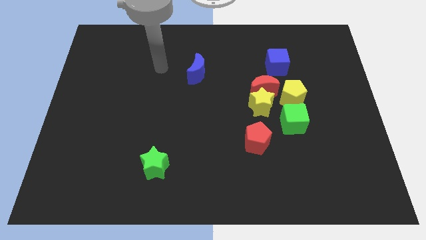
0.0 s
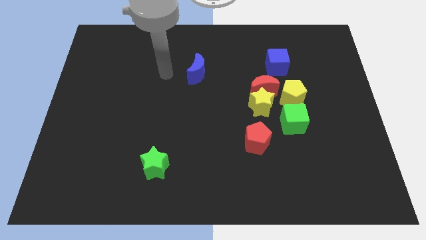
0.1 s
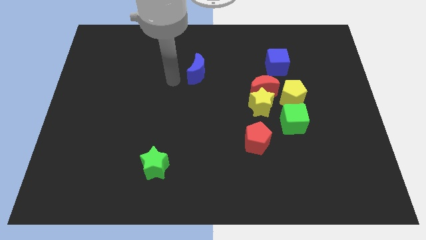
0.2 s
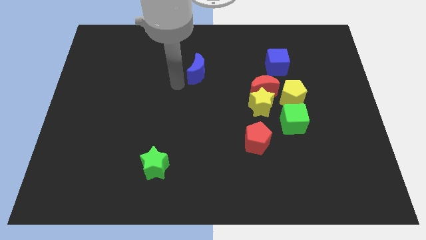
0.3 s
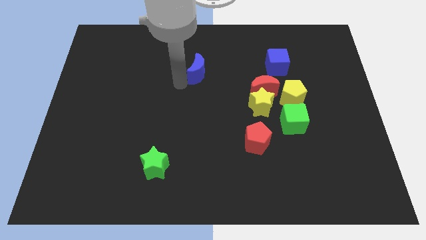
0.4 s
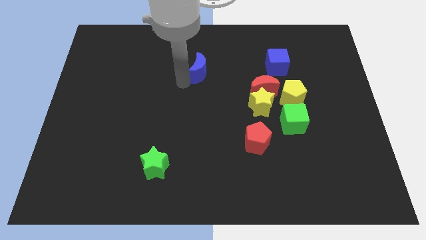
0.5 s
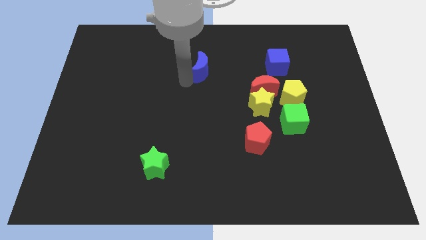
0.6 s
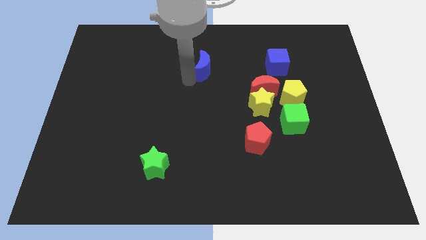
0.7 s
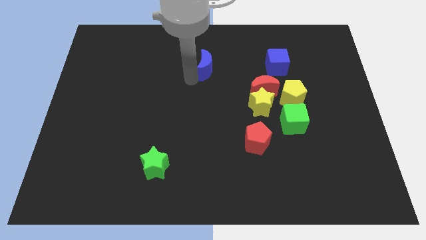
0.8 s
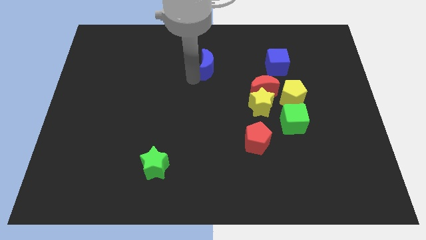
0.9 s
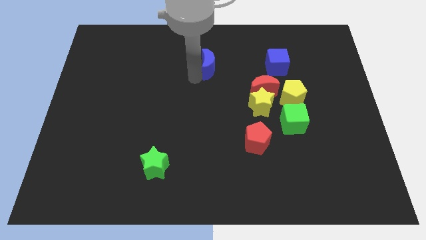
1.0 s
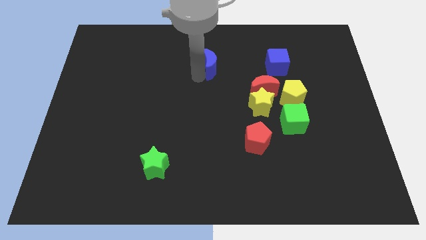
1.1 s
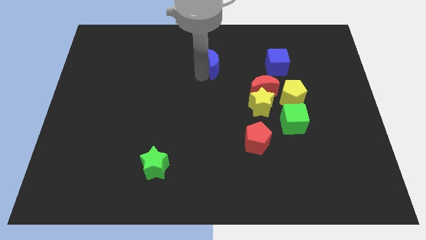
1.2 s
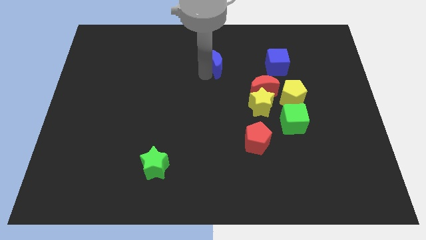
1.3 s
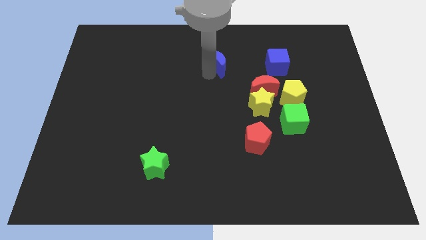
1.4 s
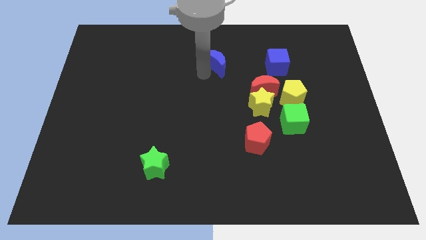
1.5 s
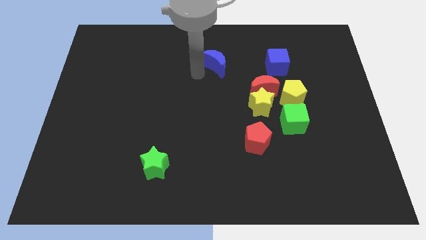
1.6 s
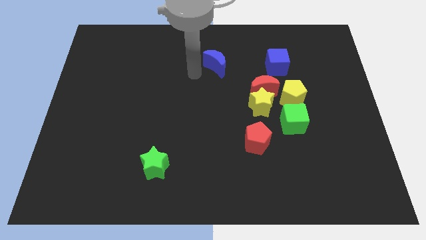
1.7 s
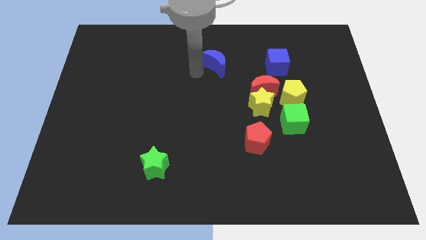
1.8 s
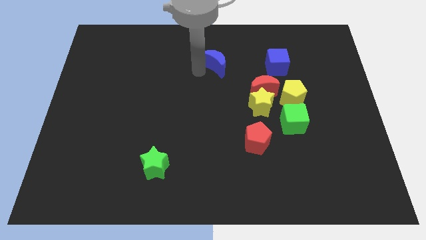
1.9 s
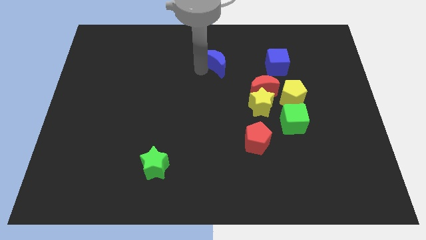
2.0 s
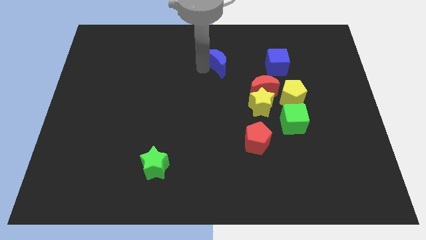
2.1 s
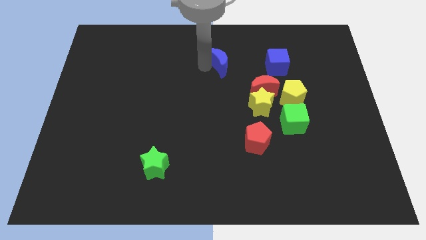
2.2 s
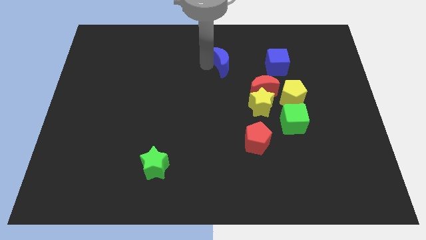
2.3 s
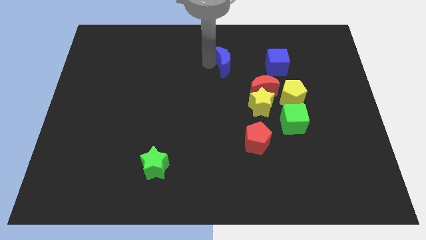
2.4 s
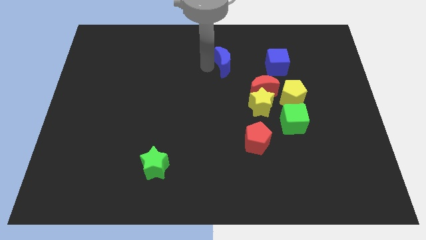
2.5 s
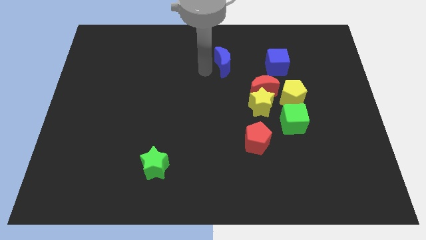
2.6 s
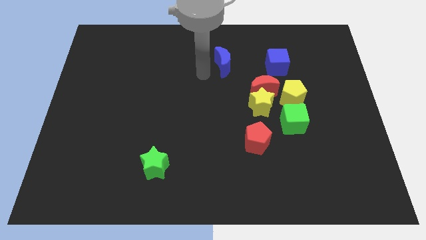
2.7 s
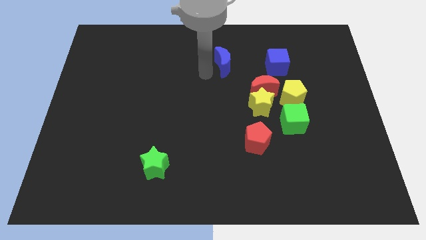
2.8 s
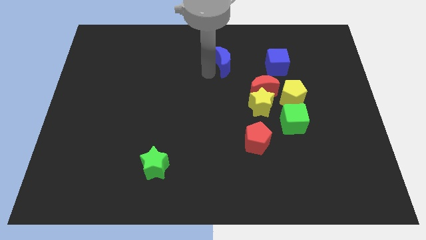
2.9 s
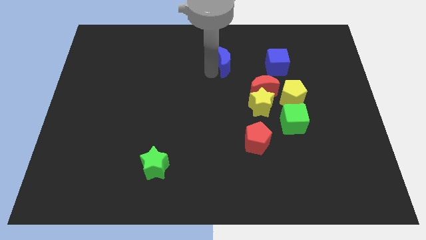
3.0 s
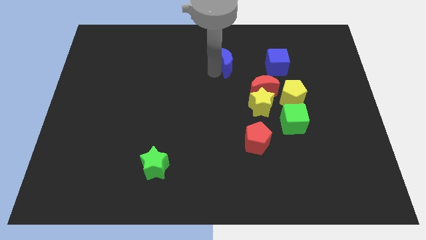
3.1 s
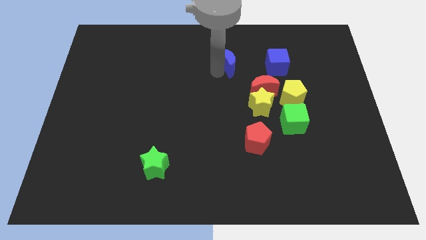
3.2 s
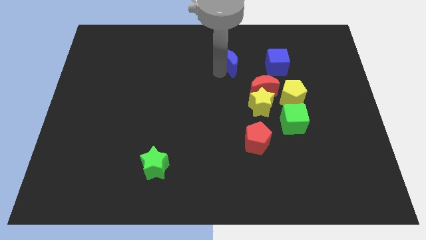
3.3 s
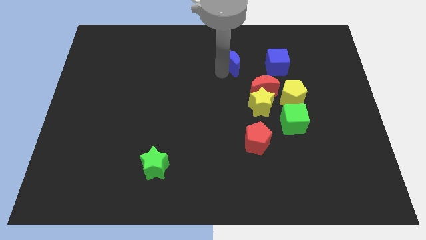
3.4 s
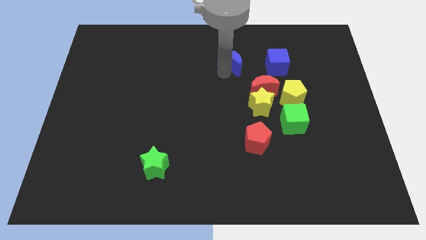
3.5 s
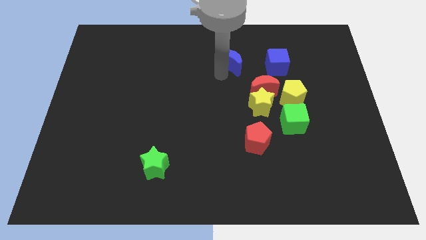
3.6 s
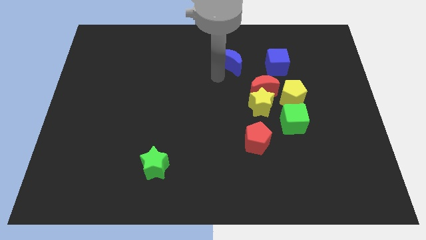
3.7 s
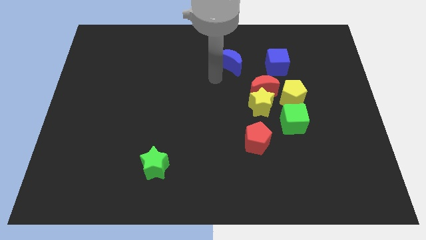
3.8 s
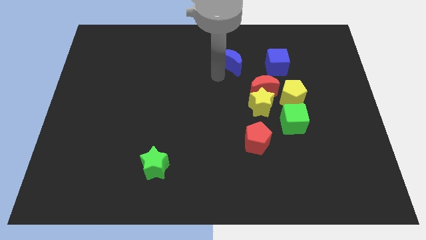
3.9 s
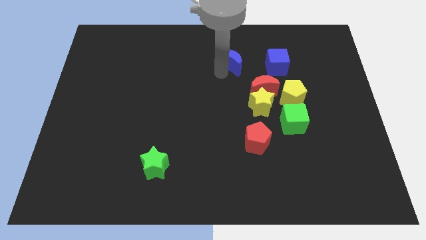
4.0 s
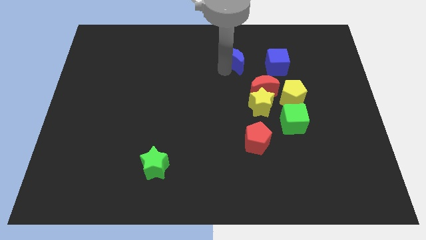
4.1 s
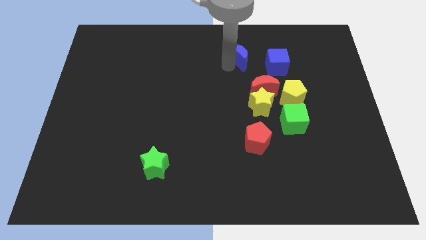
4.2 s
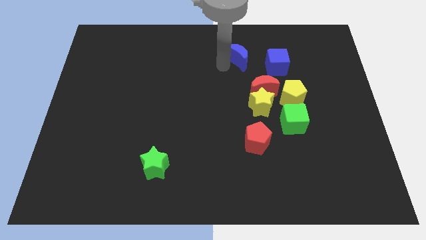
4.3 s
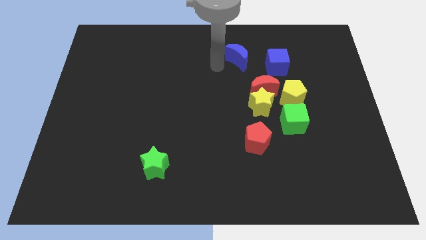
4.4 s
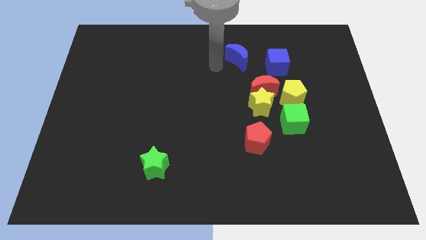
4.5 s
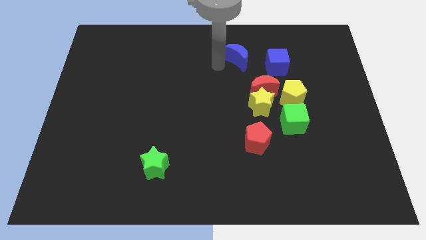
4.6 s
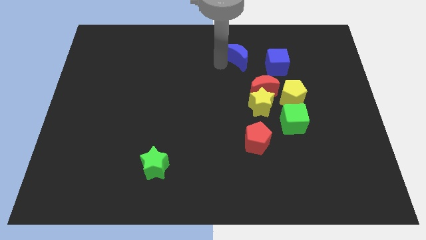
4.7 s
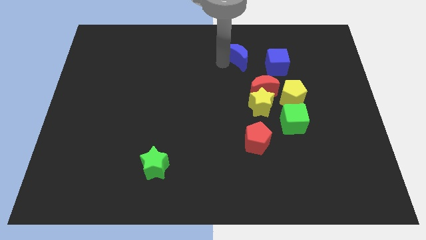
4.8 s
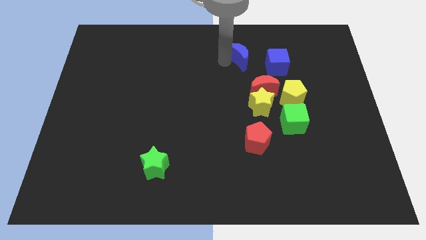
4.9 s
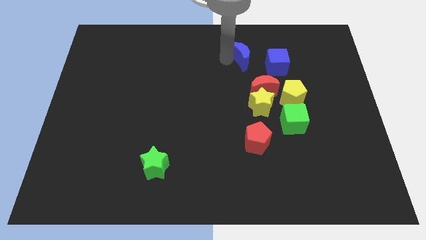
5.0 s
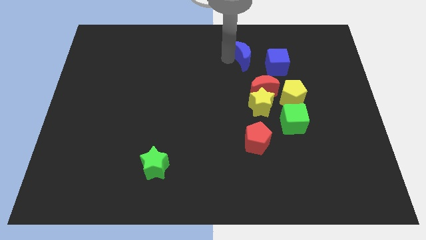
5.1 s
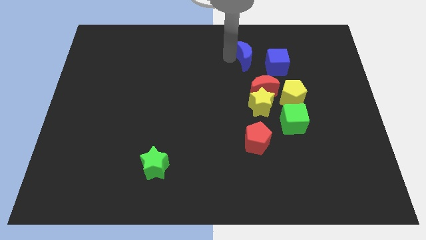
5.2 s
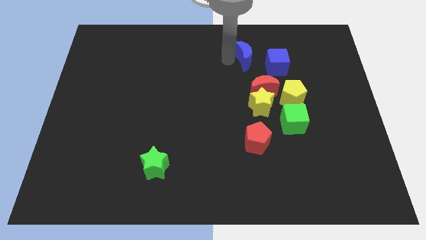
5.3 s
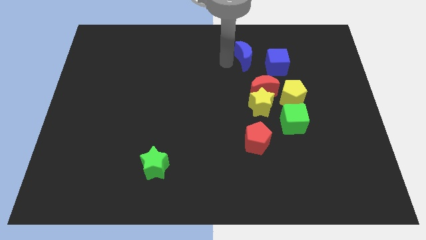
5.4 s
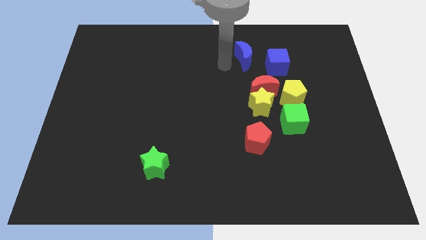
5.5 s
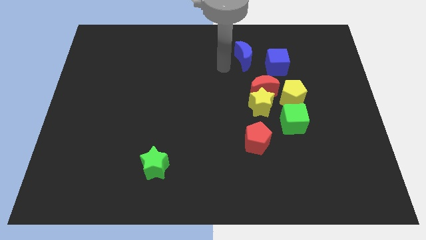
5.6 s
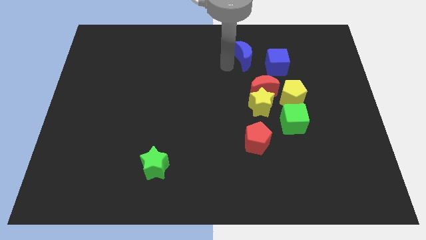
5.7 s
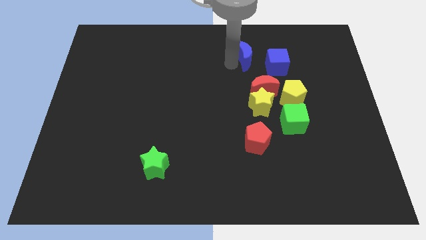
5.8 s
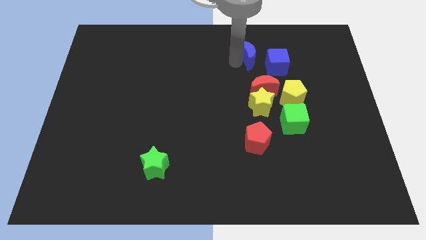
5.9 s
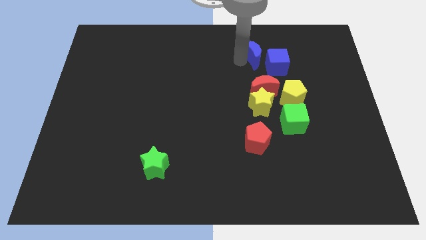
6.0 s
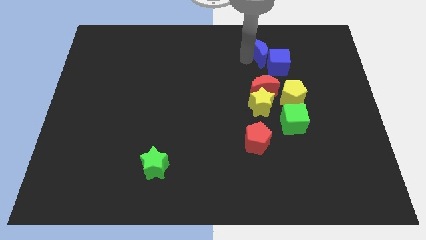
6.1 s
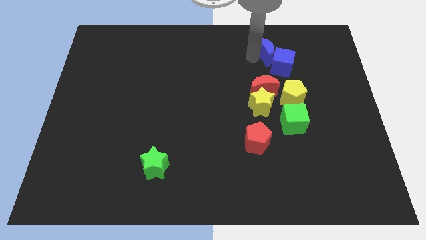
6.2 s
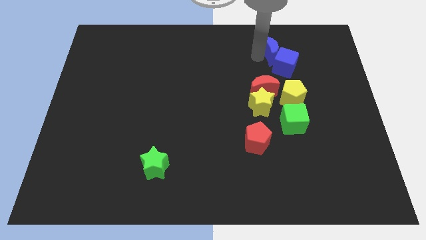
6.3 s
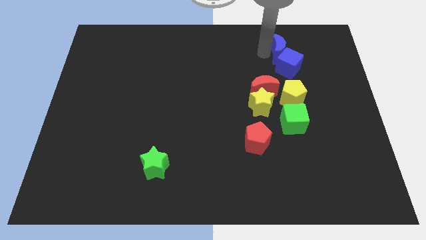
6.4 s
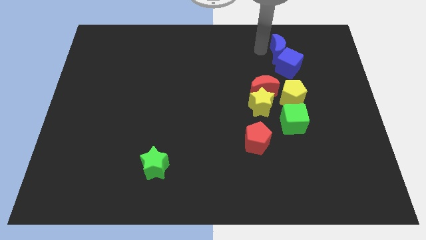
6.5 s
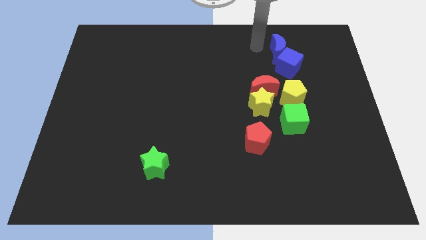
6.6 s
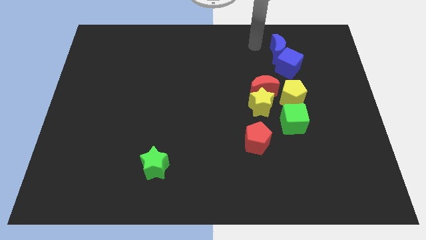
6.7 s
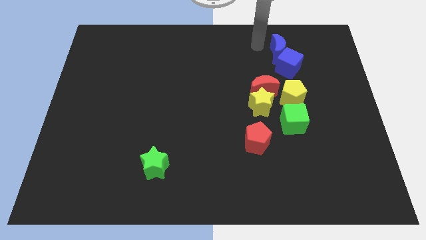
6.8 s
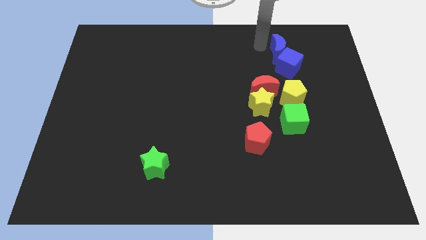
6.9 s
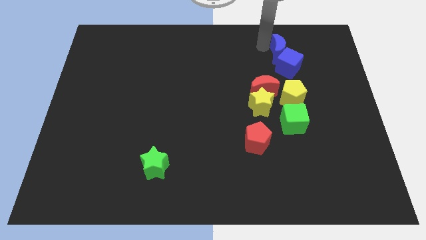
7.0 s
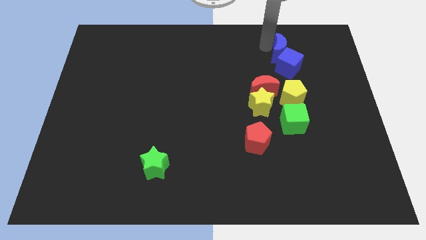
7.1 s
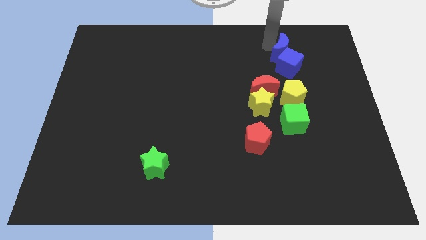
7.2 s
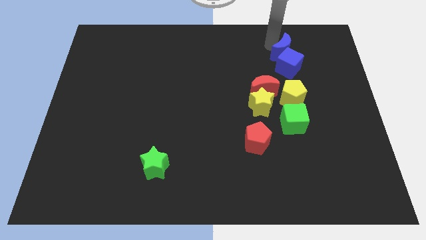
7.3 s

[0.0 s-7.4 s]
move the blue moon to the right

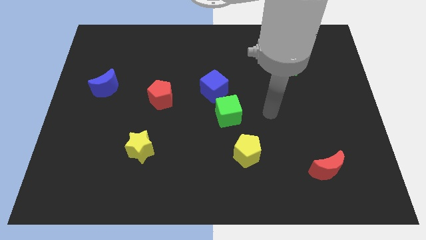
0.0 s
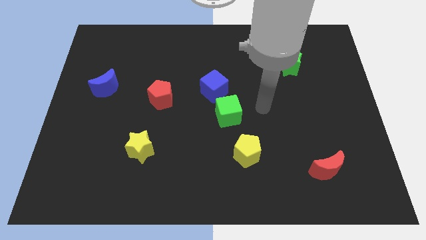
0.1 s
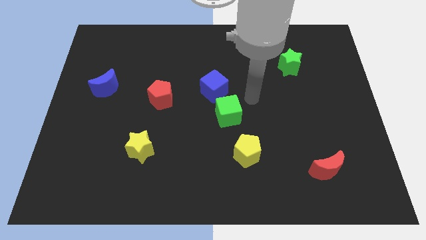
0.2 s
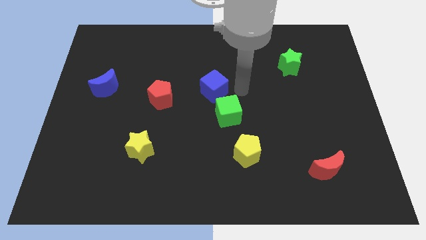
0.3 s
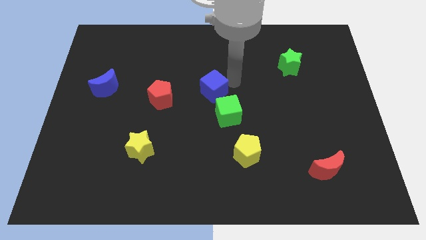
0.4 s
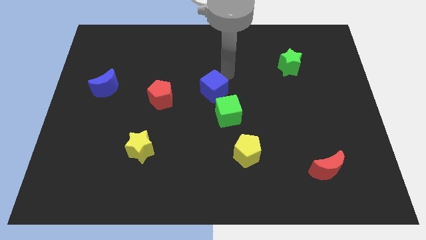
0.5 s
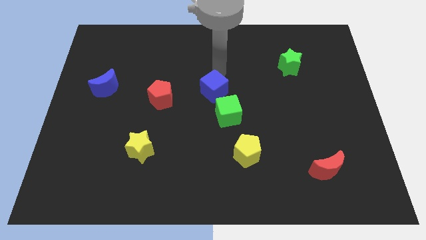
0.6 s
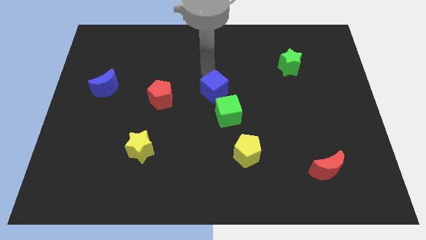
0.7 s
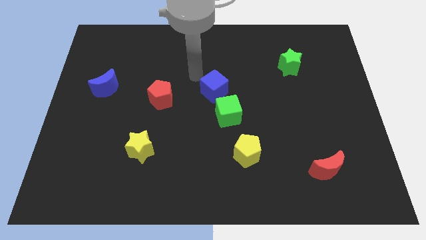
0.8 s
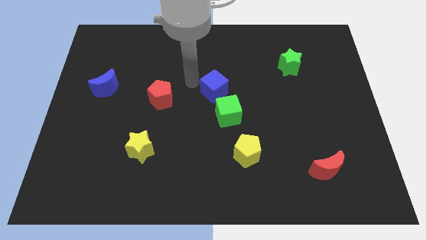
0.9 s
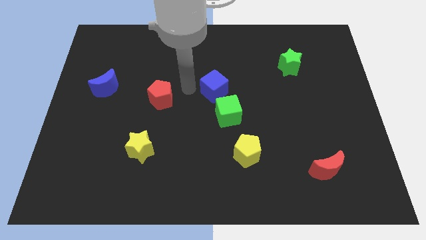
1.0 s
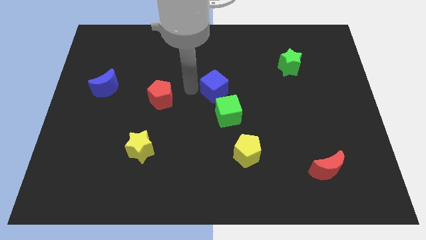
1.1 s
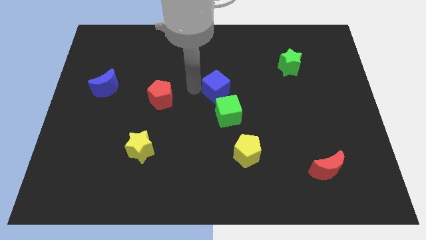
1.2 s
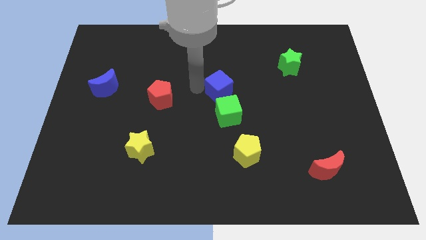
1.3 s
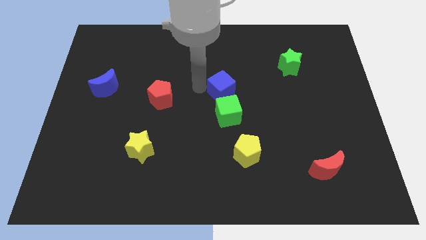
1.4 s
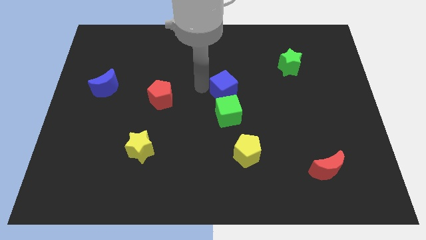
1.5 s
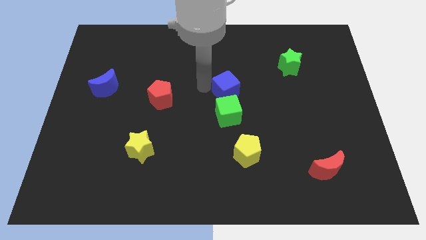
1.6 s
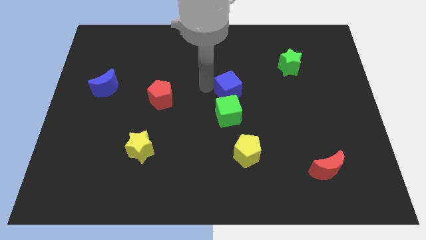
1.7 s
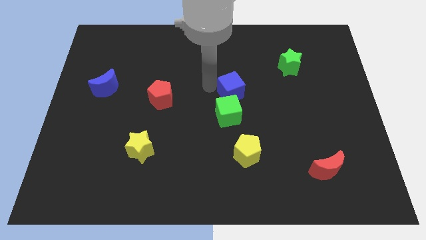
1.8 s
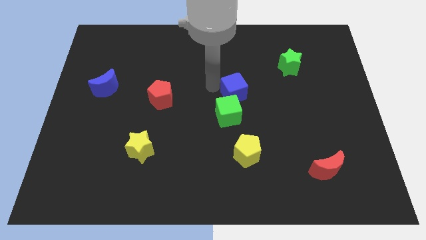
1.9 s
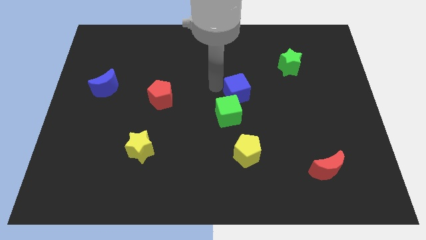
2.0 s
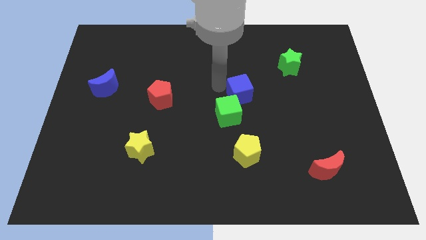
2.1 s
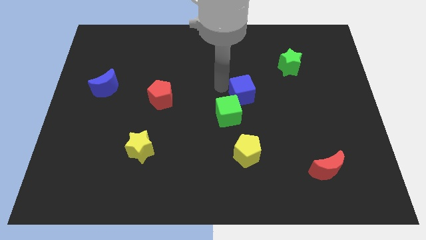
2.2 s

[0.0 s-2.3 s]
slightly move the blue cube right
